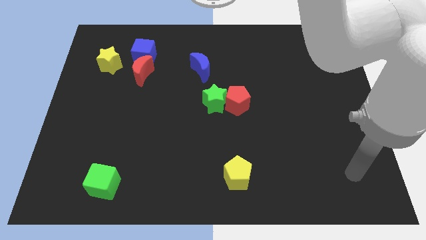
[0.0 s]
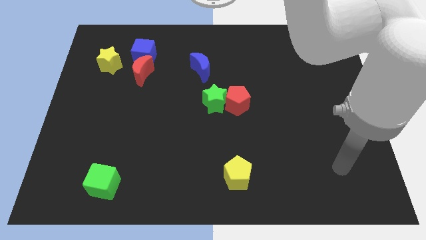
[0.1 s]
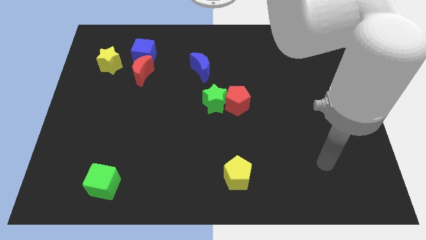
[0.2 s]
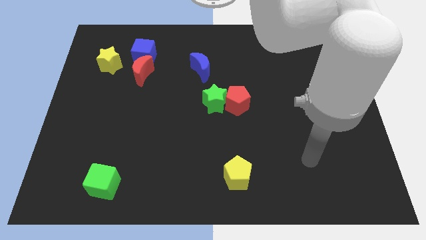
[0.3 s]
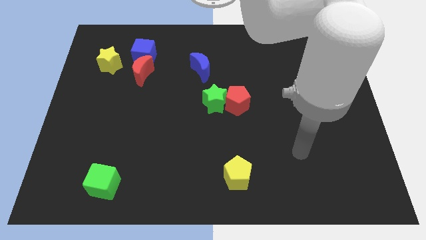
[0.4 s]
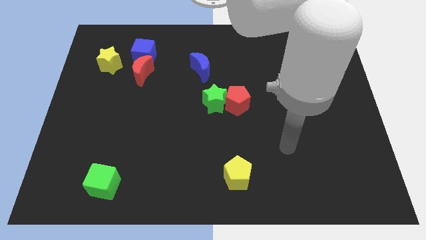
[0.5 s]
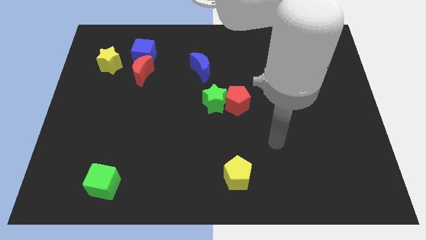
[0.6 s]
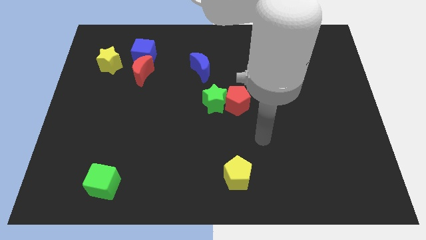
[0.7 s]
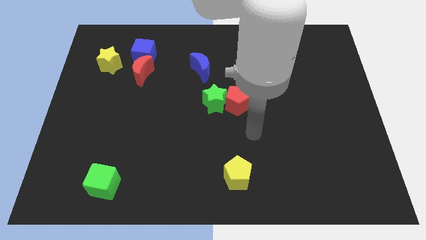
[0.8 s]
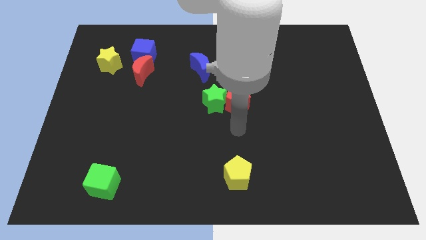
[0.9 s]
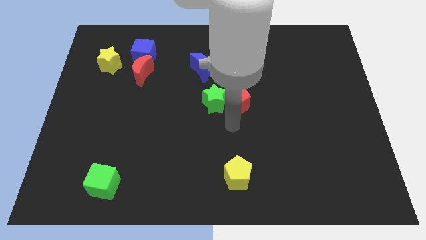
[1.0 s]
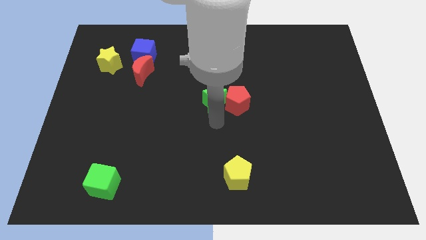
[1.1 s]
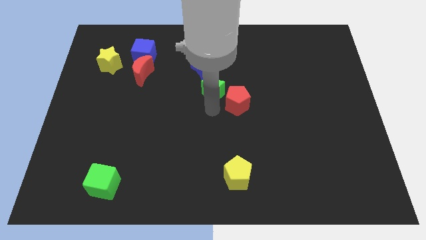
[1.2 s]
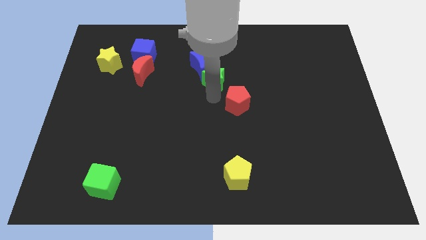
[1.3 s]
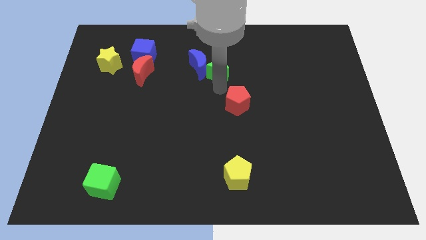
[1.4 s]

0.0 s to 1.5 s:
move the red pentagon away from the green star

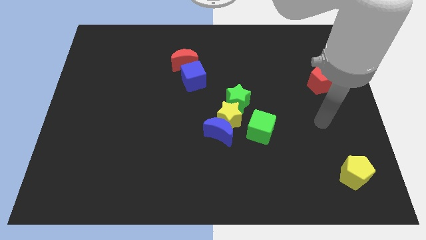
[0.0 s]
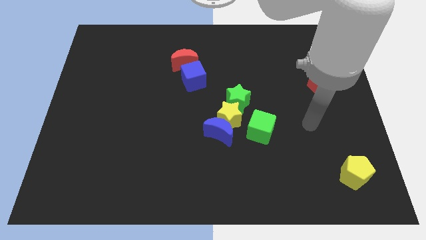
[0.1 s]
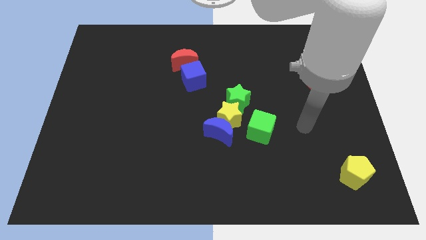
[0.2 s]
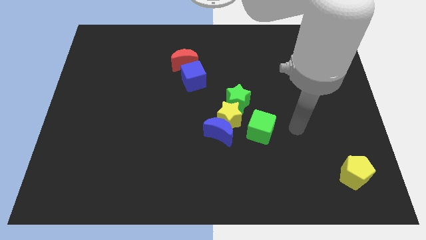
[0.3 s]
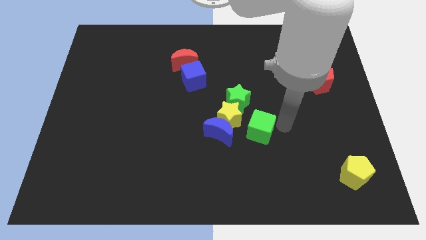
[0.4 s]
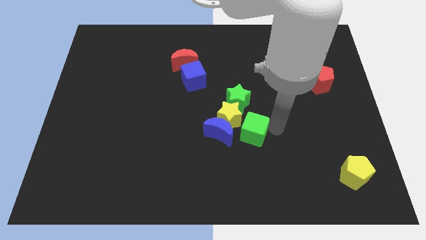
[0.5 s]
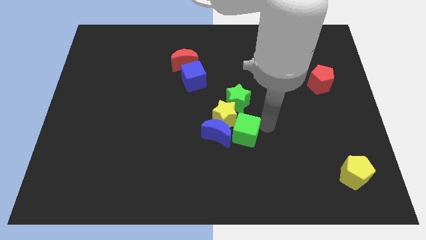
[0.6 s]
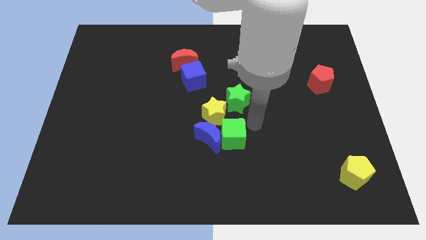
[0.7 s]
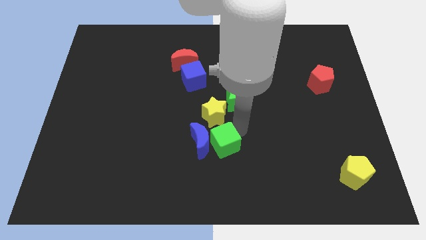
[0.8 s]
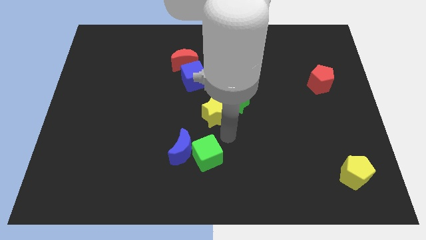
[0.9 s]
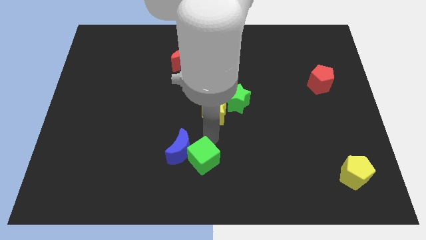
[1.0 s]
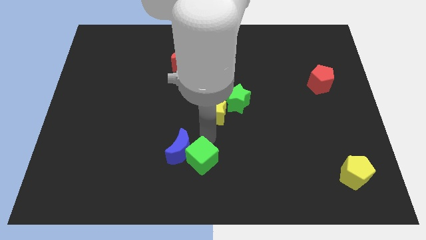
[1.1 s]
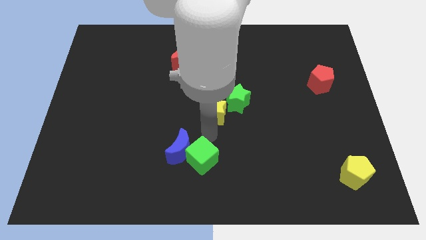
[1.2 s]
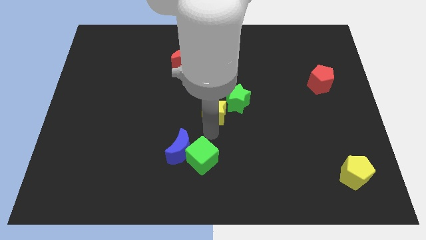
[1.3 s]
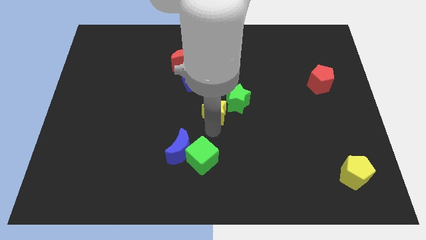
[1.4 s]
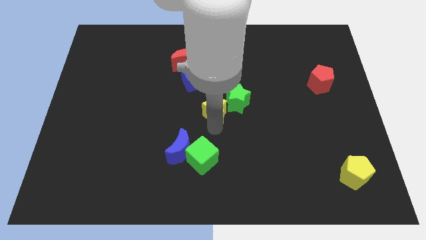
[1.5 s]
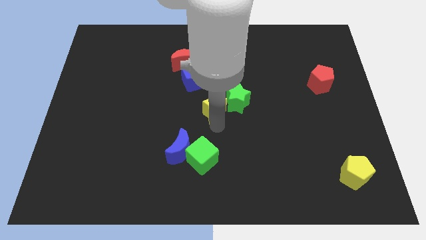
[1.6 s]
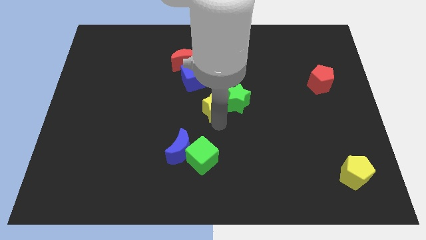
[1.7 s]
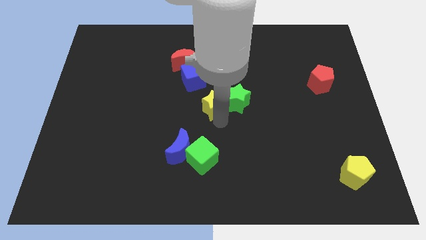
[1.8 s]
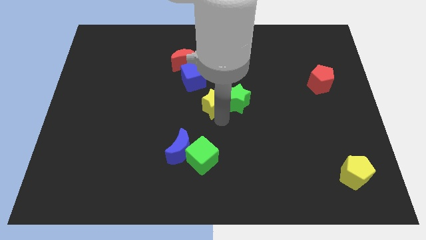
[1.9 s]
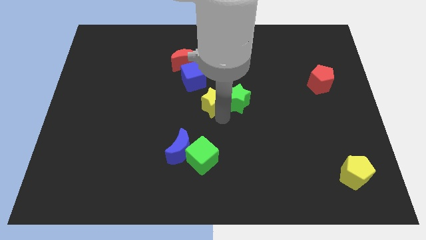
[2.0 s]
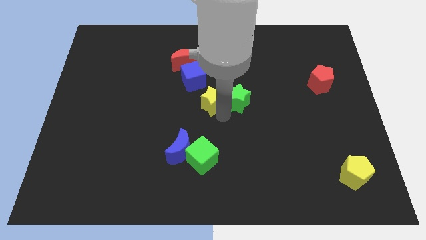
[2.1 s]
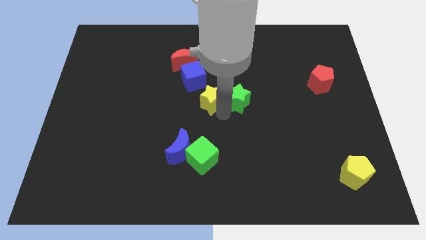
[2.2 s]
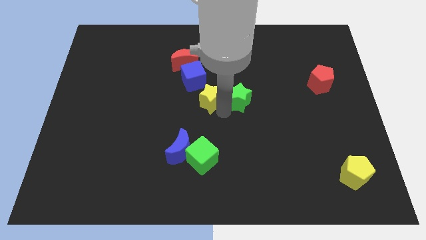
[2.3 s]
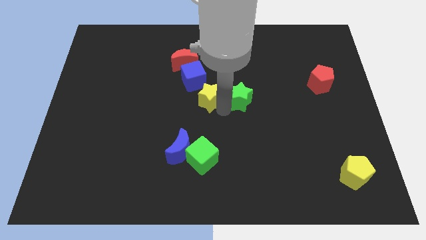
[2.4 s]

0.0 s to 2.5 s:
separate the yellow star from the blue moon, green star, and green cube

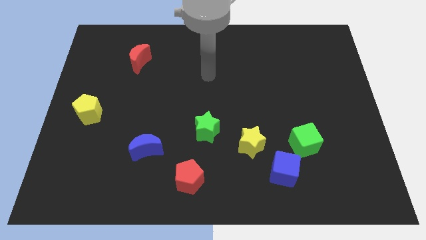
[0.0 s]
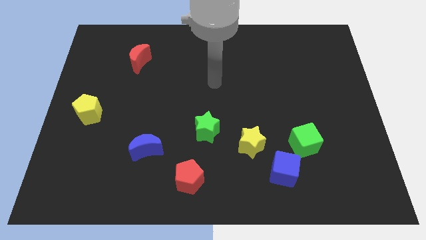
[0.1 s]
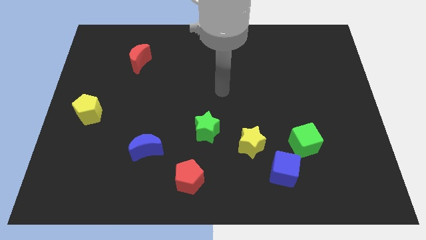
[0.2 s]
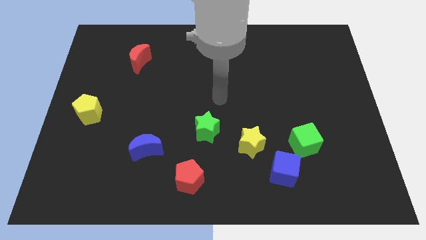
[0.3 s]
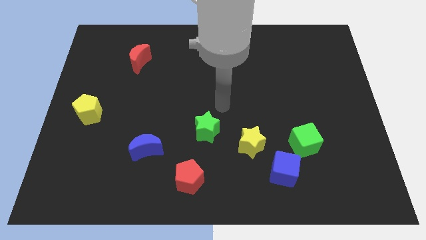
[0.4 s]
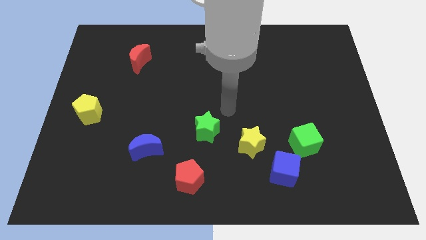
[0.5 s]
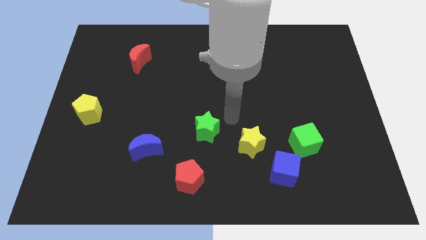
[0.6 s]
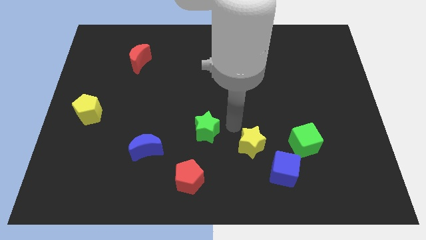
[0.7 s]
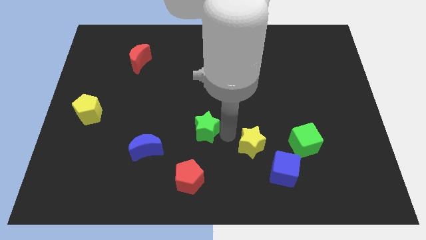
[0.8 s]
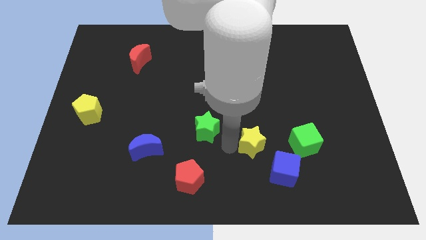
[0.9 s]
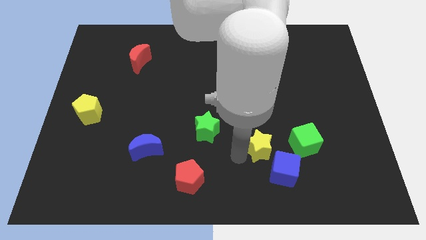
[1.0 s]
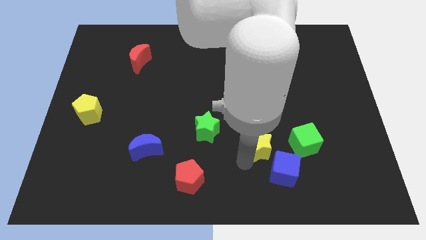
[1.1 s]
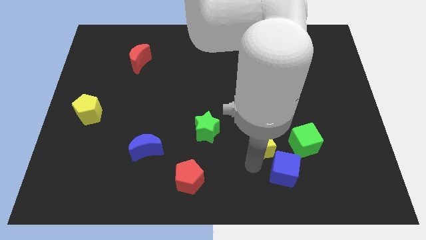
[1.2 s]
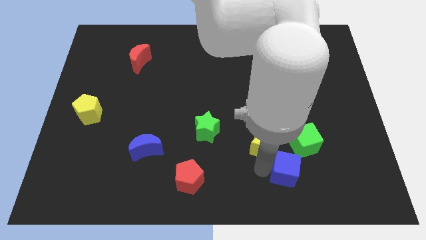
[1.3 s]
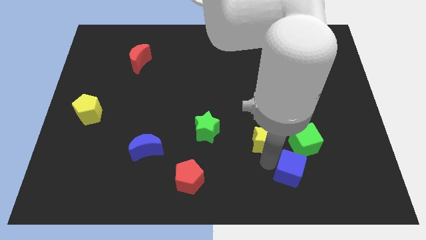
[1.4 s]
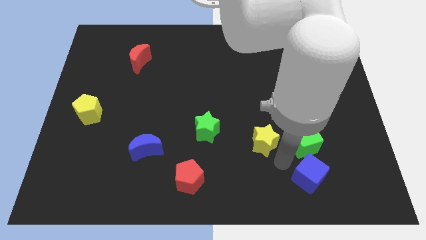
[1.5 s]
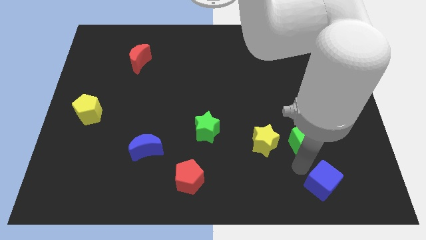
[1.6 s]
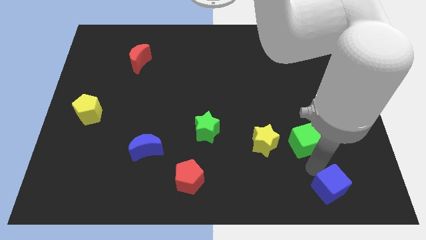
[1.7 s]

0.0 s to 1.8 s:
separate the green cube from the blue cube

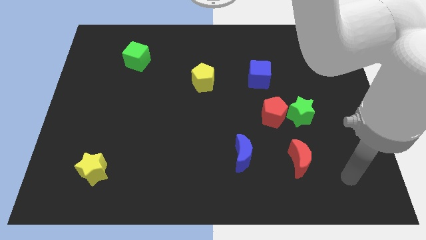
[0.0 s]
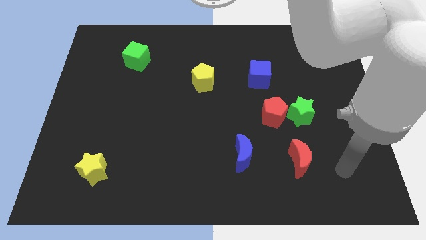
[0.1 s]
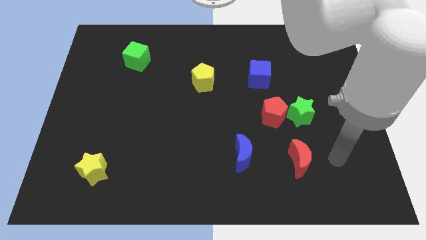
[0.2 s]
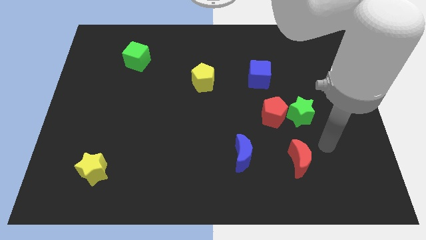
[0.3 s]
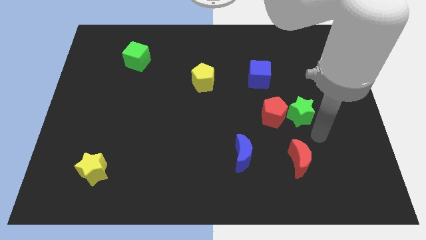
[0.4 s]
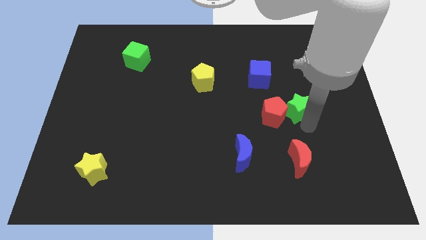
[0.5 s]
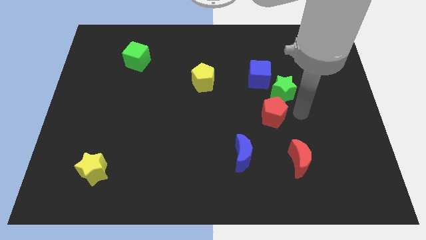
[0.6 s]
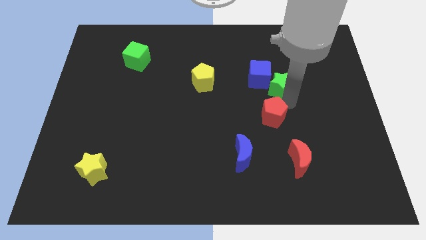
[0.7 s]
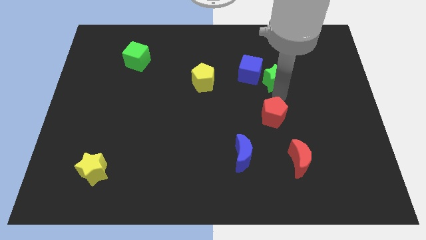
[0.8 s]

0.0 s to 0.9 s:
separate the red pentagon from the green star

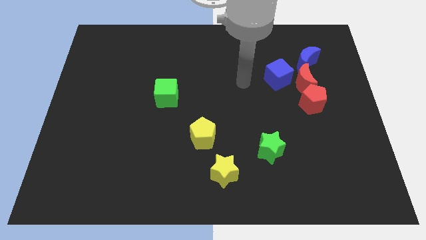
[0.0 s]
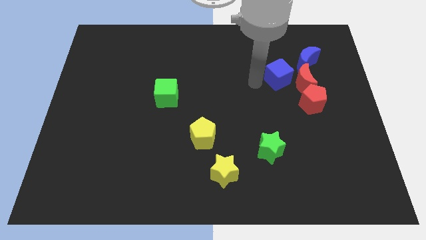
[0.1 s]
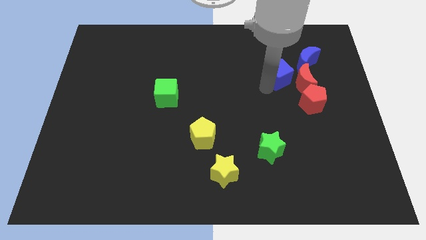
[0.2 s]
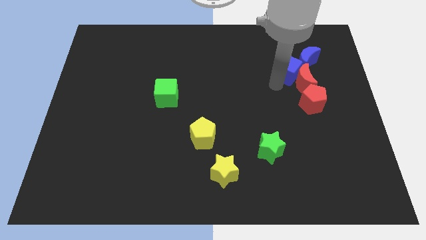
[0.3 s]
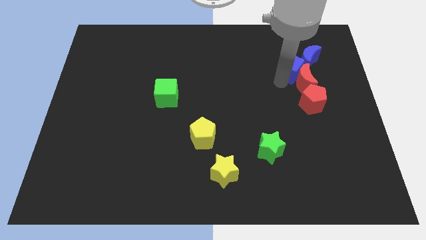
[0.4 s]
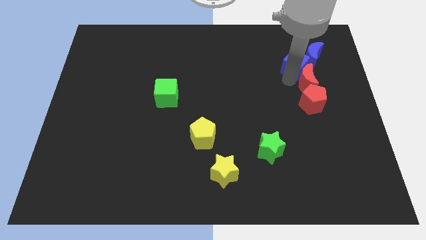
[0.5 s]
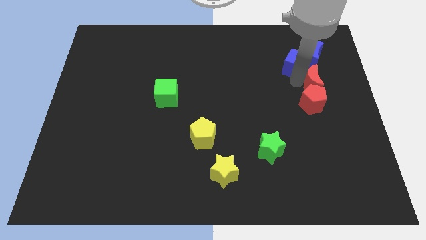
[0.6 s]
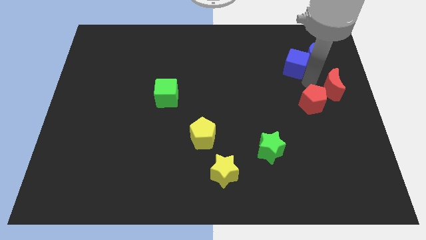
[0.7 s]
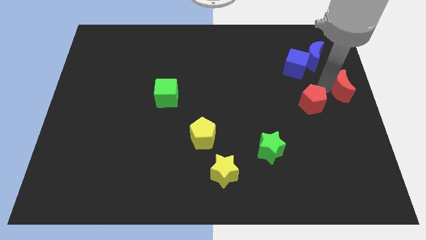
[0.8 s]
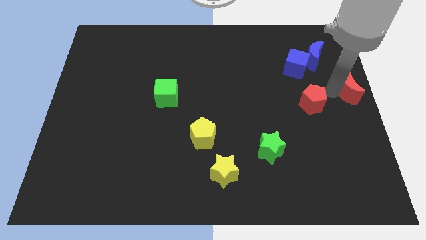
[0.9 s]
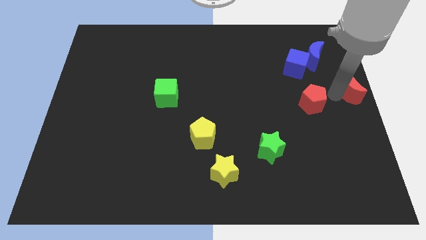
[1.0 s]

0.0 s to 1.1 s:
separate the red pentagon from the red moon

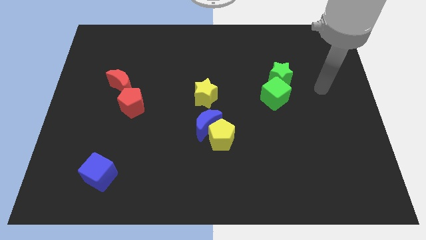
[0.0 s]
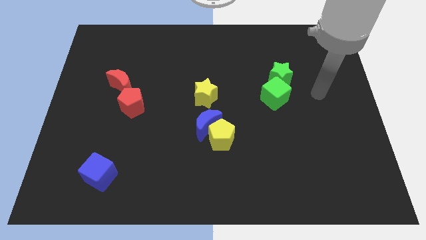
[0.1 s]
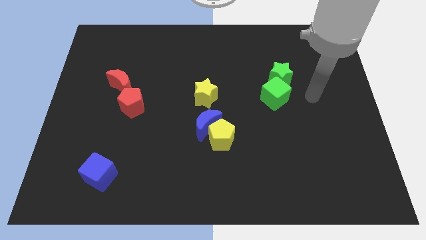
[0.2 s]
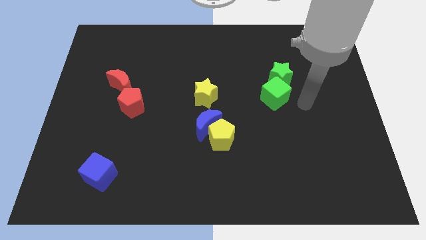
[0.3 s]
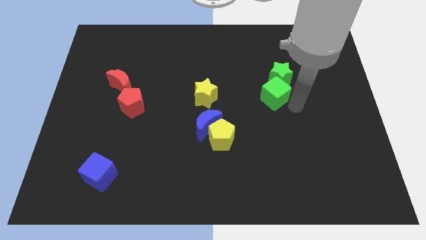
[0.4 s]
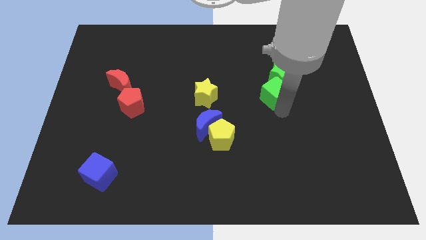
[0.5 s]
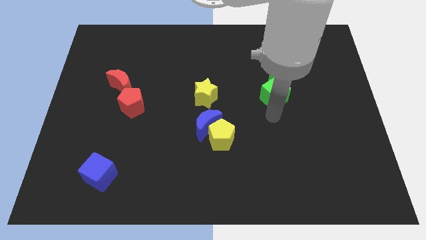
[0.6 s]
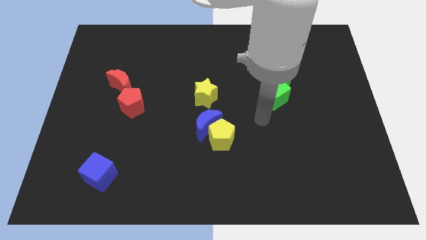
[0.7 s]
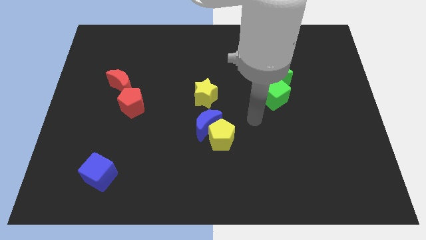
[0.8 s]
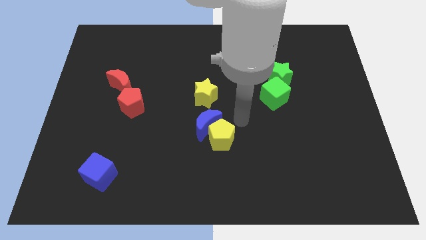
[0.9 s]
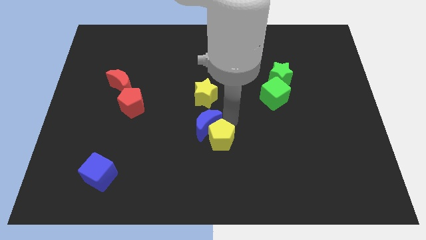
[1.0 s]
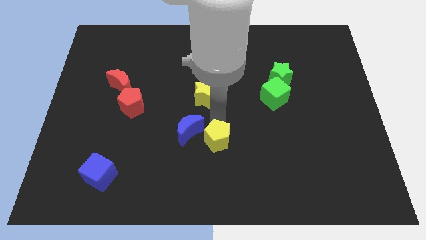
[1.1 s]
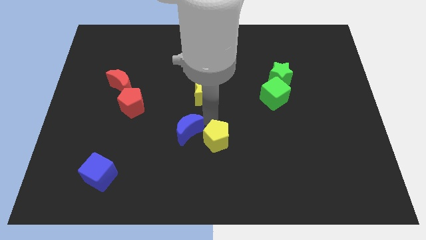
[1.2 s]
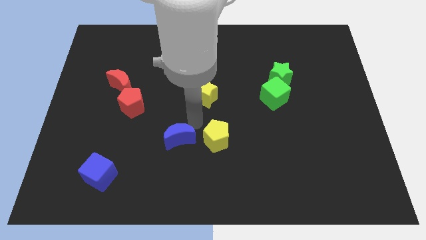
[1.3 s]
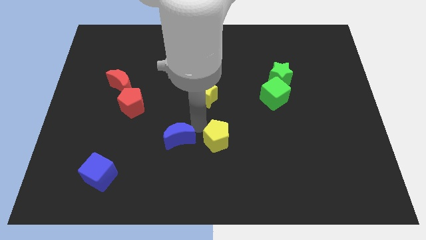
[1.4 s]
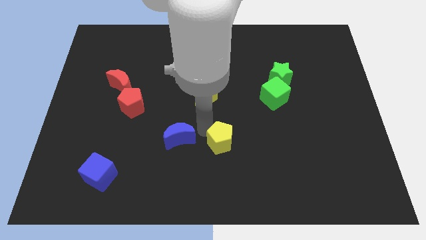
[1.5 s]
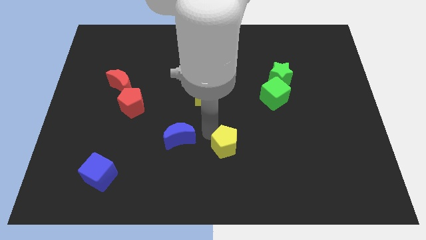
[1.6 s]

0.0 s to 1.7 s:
move the yellow pentagon away from the blue moon

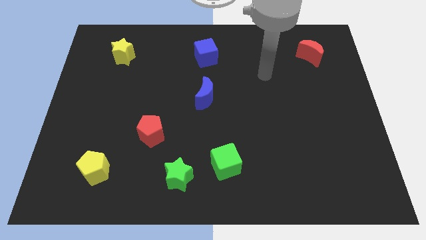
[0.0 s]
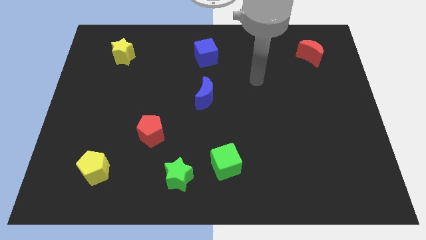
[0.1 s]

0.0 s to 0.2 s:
separate the green cube from the green star
